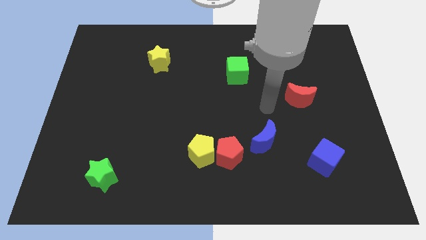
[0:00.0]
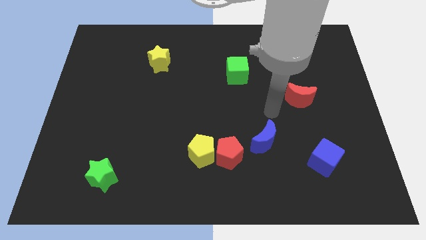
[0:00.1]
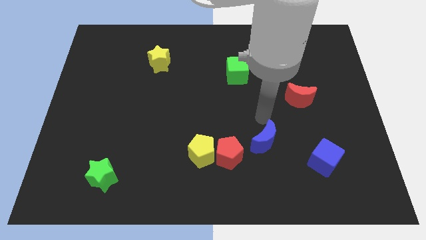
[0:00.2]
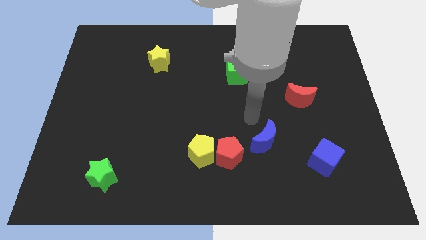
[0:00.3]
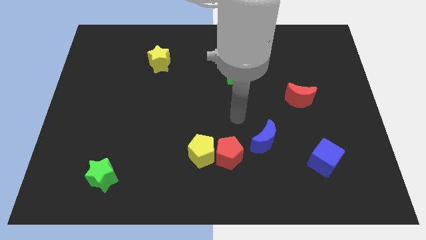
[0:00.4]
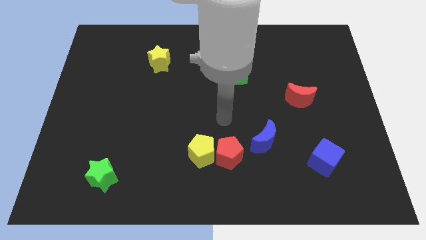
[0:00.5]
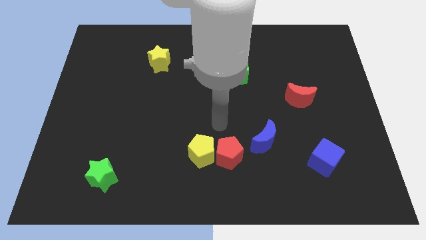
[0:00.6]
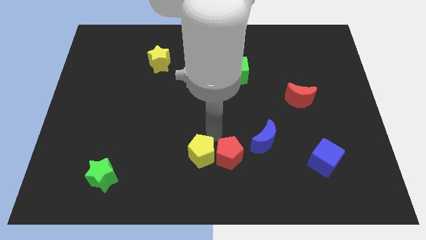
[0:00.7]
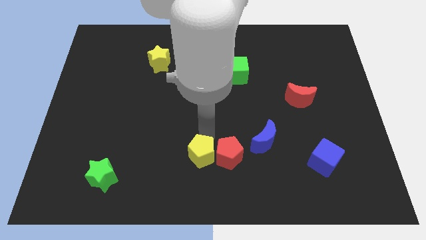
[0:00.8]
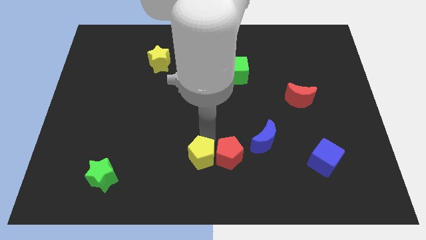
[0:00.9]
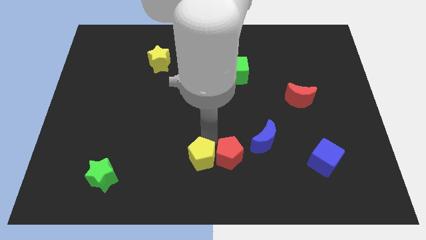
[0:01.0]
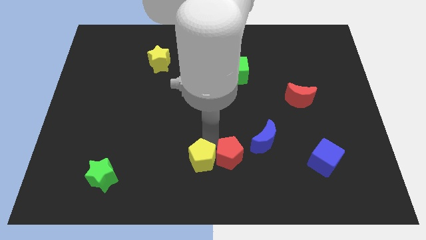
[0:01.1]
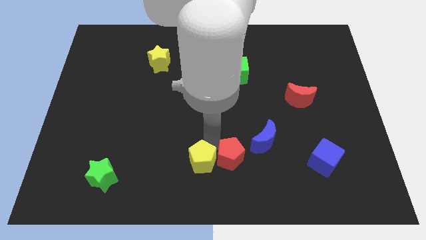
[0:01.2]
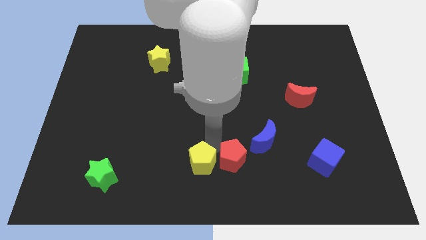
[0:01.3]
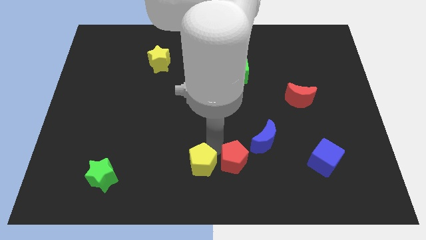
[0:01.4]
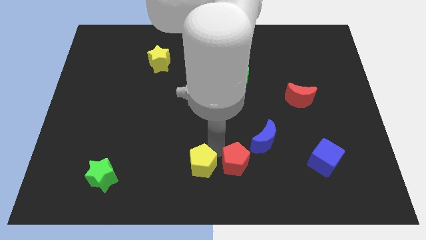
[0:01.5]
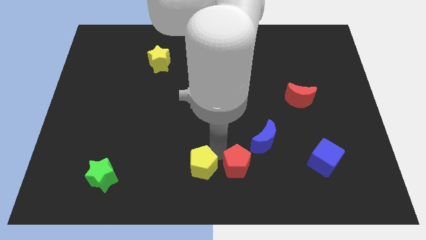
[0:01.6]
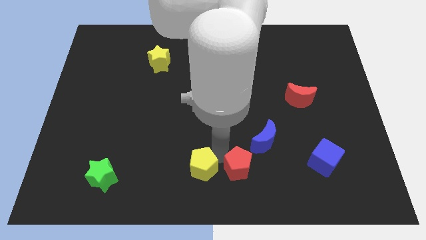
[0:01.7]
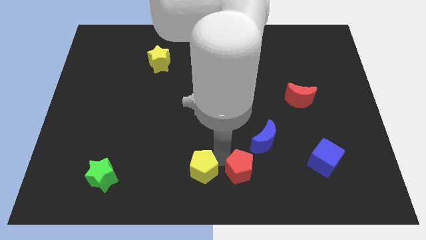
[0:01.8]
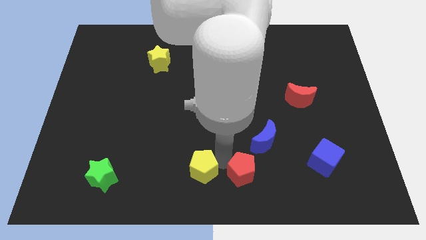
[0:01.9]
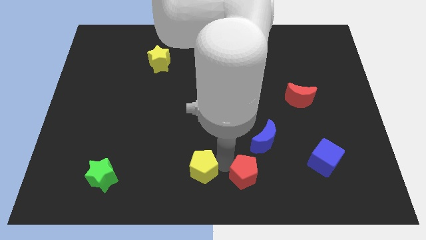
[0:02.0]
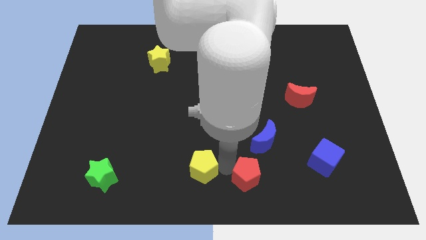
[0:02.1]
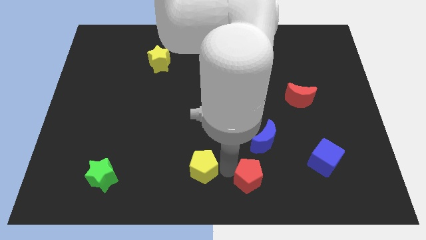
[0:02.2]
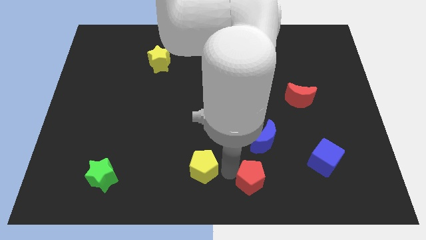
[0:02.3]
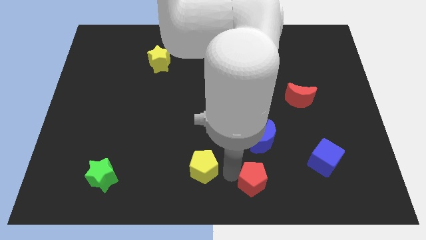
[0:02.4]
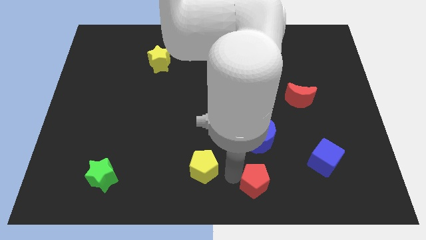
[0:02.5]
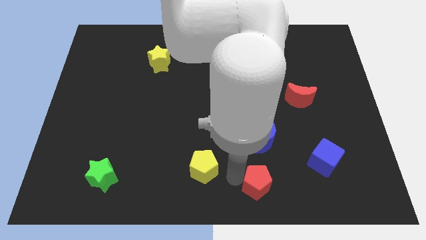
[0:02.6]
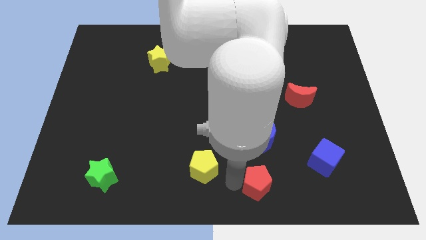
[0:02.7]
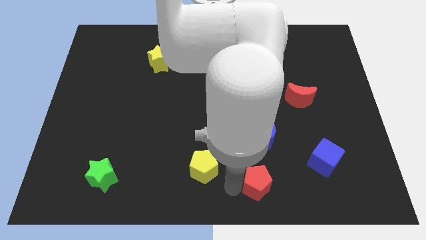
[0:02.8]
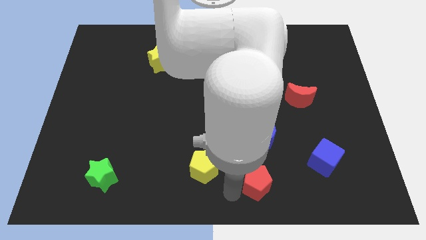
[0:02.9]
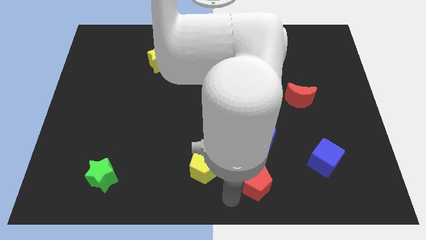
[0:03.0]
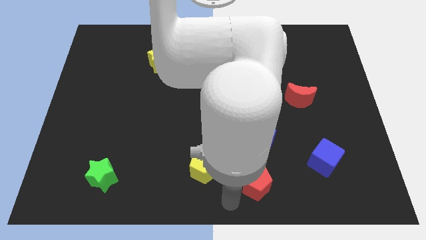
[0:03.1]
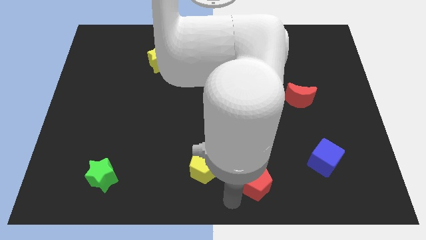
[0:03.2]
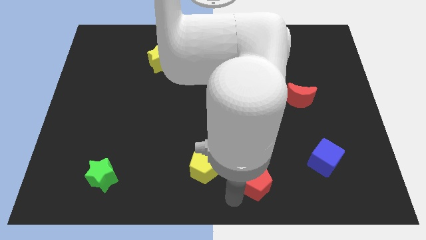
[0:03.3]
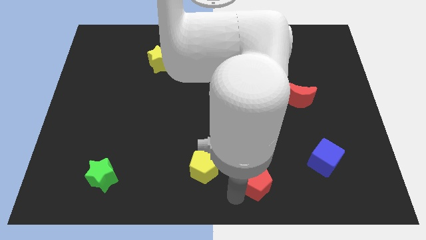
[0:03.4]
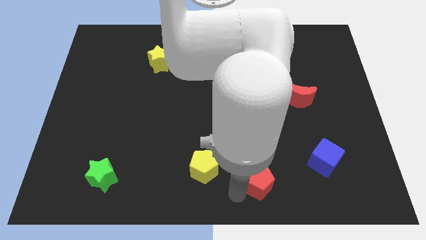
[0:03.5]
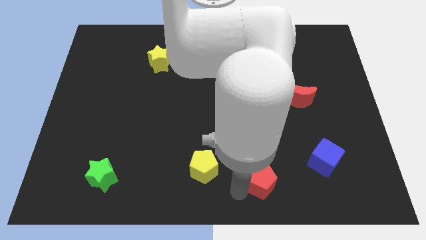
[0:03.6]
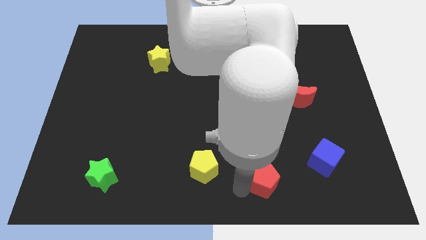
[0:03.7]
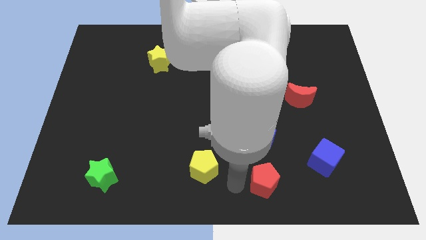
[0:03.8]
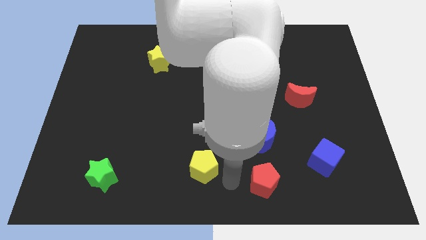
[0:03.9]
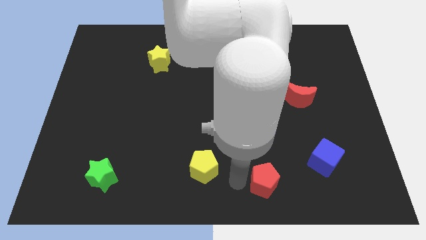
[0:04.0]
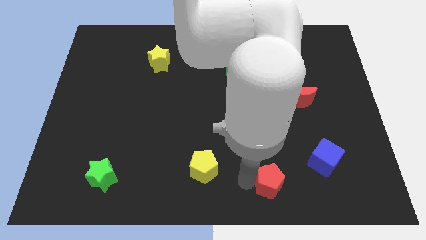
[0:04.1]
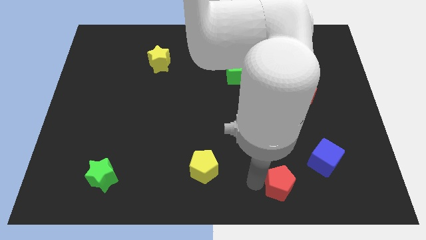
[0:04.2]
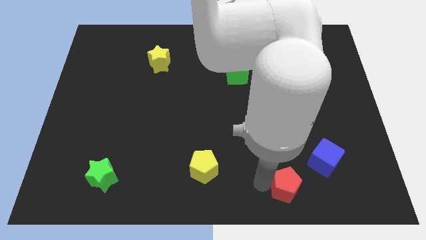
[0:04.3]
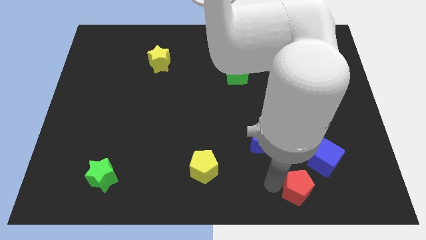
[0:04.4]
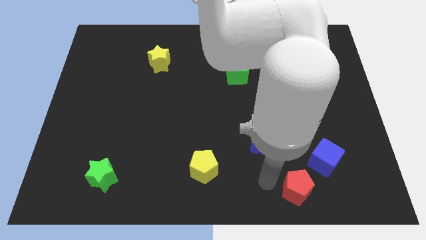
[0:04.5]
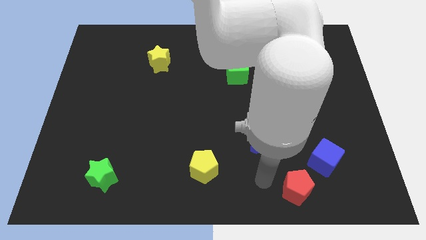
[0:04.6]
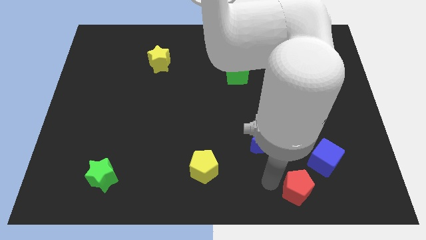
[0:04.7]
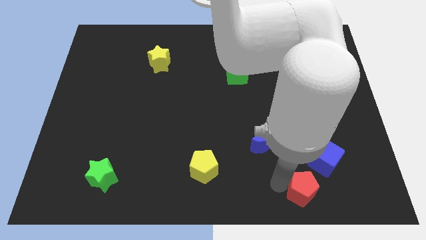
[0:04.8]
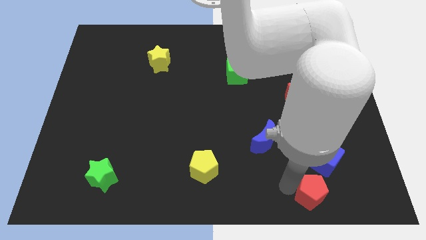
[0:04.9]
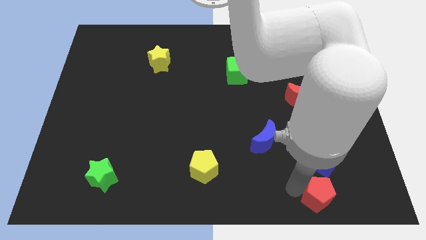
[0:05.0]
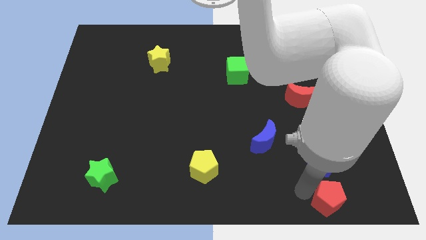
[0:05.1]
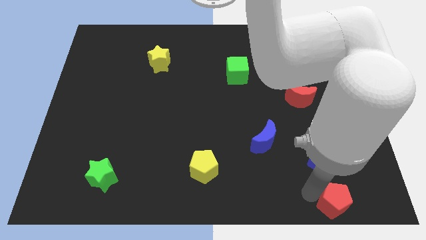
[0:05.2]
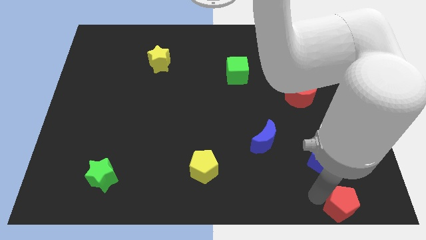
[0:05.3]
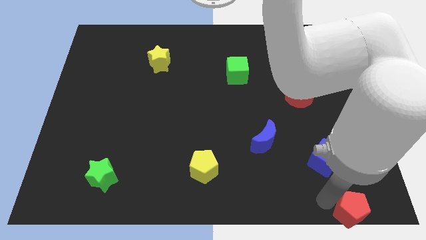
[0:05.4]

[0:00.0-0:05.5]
move the red pentagon to the bottom right corner
